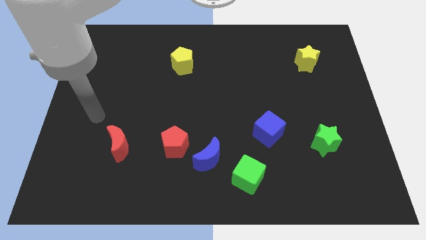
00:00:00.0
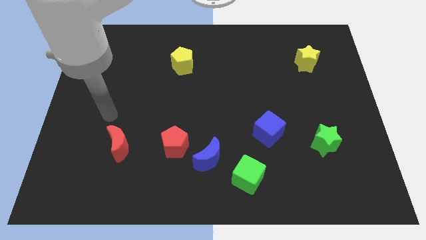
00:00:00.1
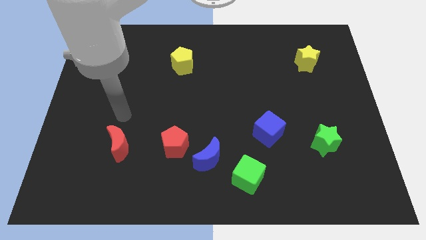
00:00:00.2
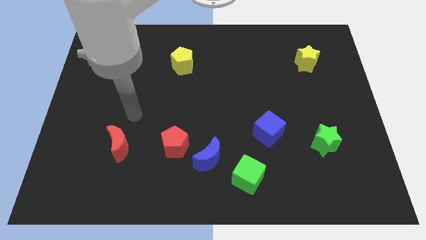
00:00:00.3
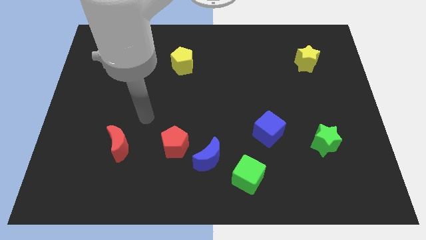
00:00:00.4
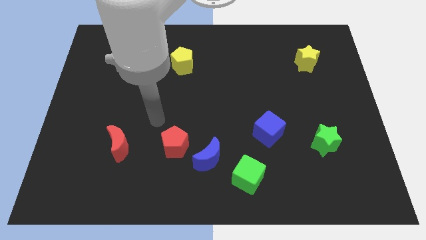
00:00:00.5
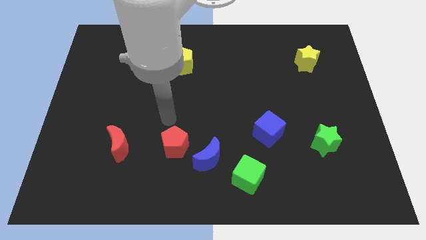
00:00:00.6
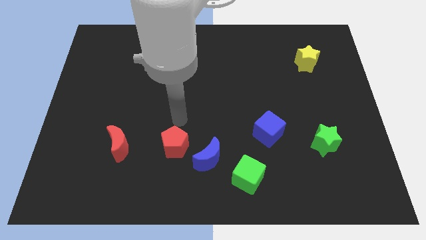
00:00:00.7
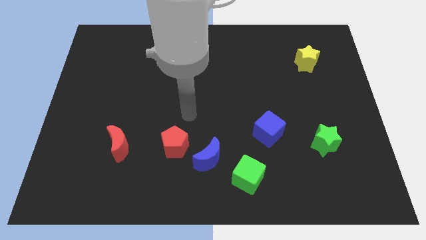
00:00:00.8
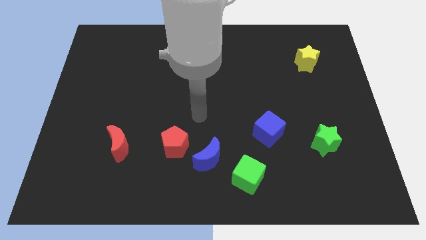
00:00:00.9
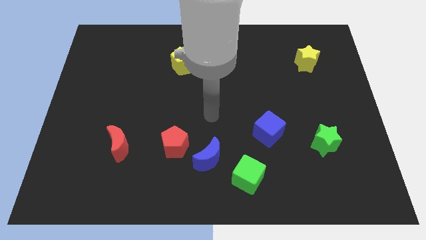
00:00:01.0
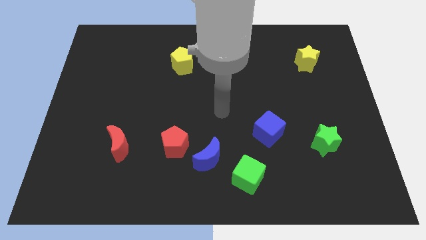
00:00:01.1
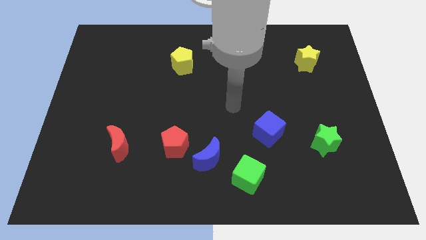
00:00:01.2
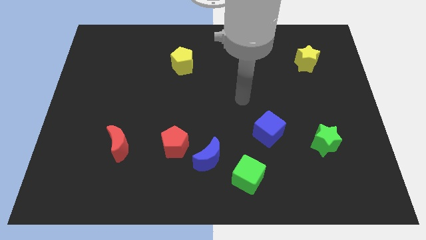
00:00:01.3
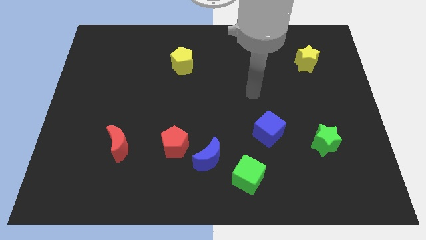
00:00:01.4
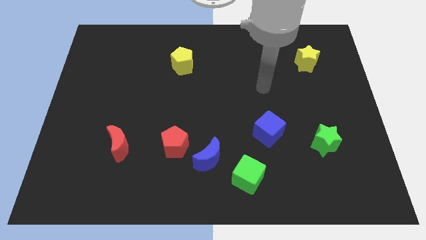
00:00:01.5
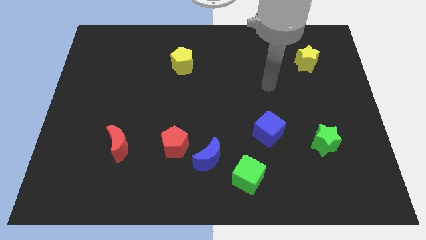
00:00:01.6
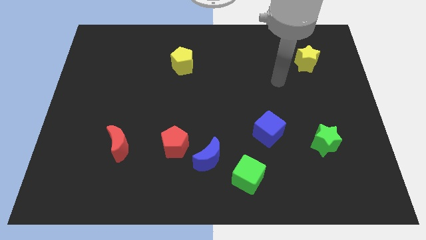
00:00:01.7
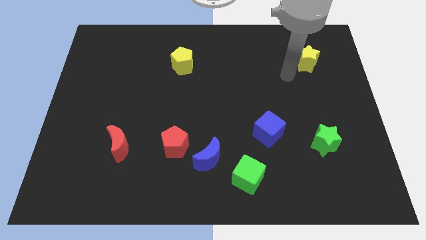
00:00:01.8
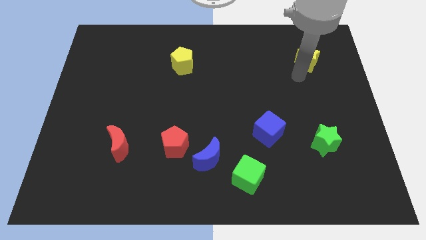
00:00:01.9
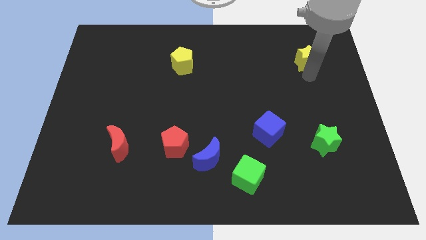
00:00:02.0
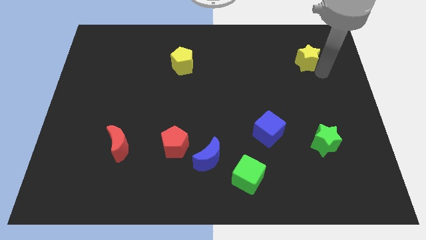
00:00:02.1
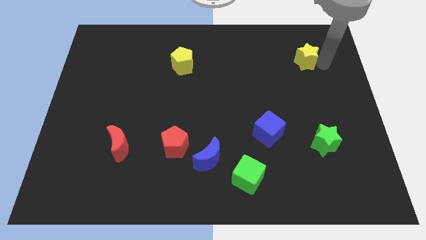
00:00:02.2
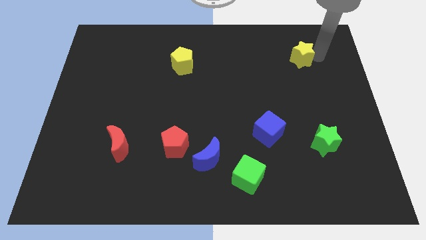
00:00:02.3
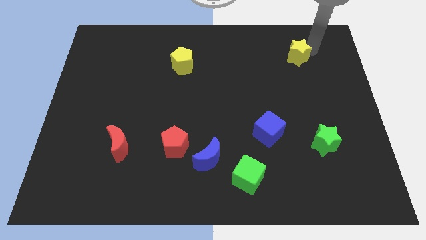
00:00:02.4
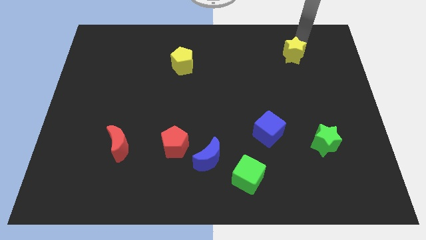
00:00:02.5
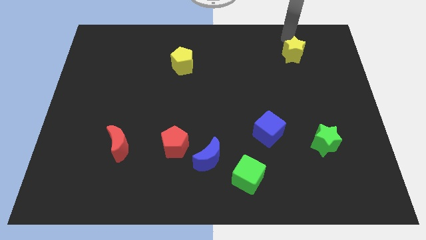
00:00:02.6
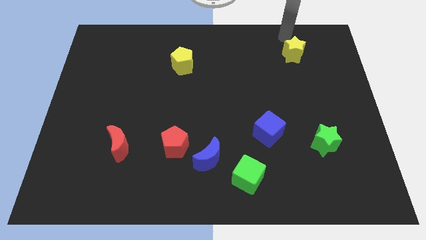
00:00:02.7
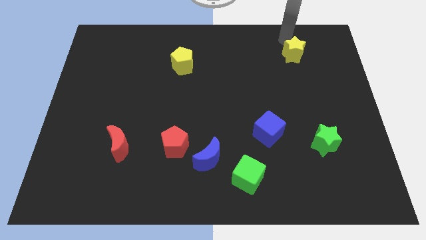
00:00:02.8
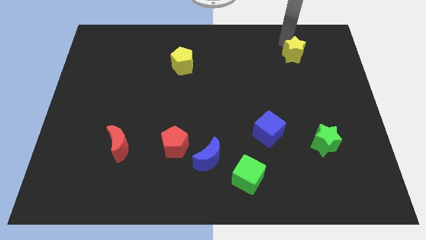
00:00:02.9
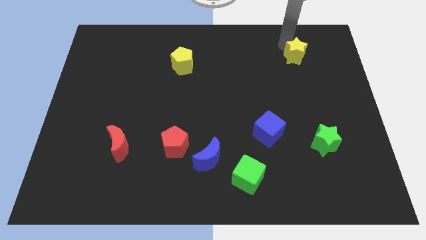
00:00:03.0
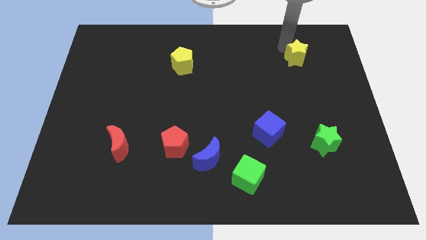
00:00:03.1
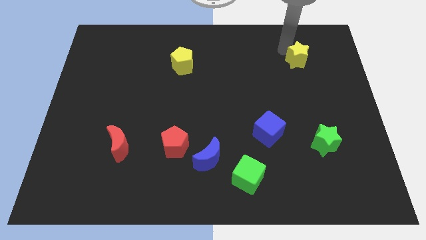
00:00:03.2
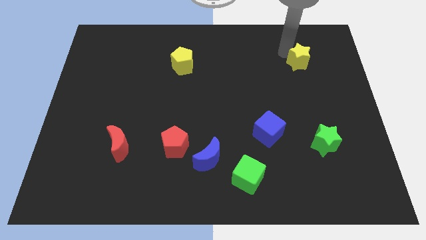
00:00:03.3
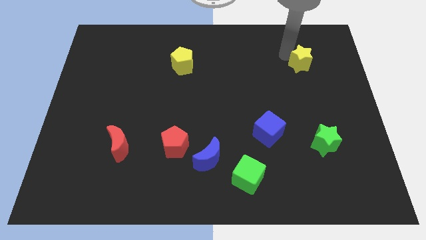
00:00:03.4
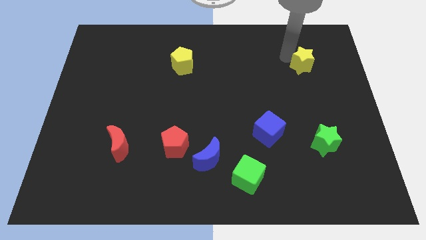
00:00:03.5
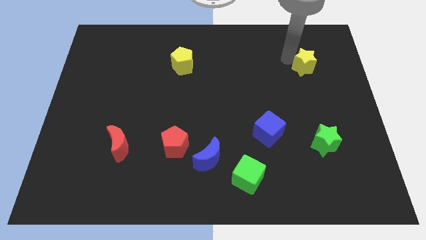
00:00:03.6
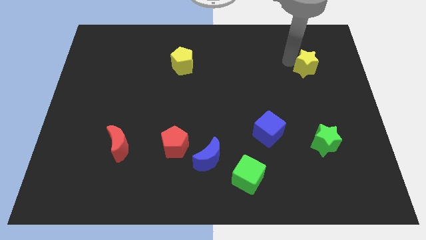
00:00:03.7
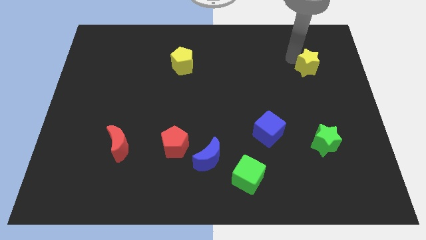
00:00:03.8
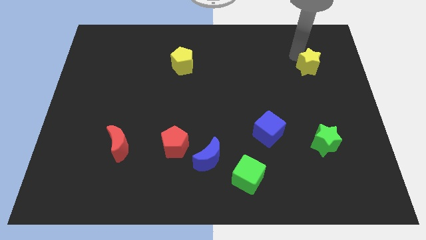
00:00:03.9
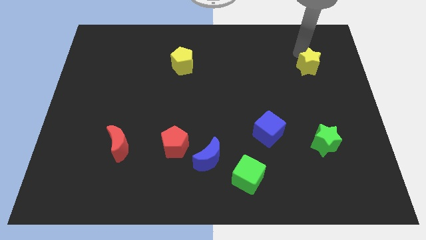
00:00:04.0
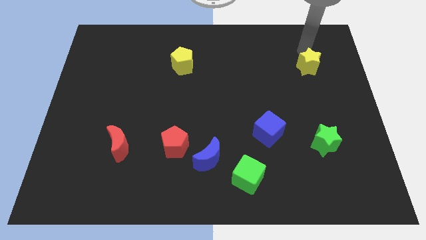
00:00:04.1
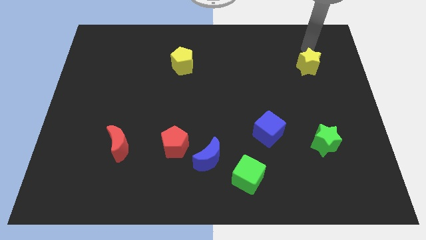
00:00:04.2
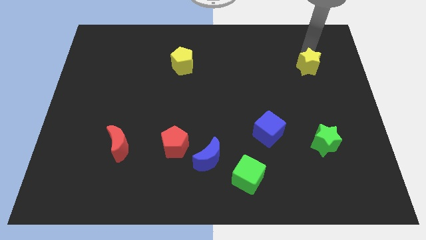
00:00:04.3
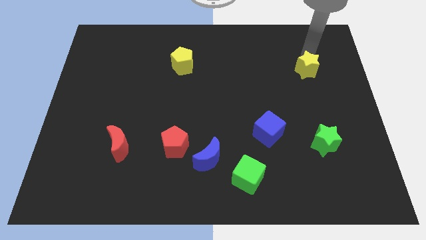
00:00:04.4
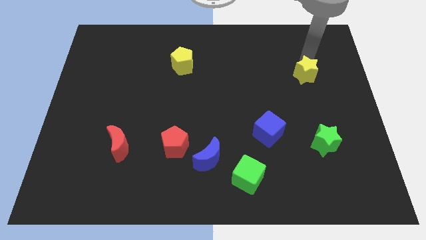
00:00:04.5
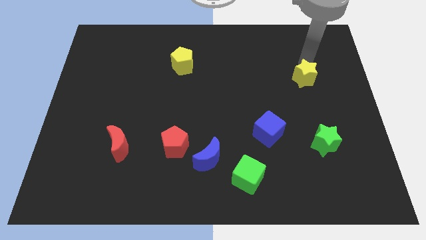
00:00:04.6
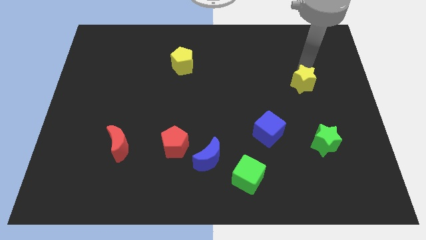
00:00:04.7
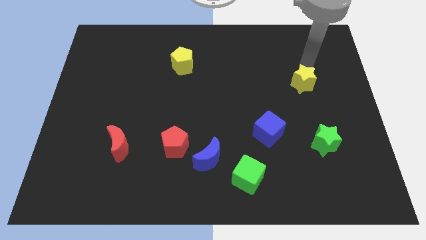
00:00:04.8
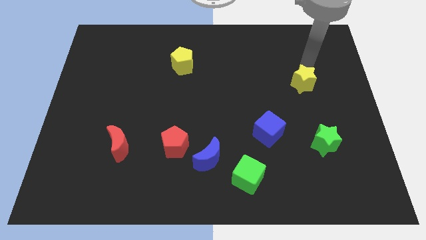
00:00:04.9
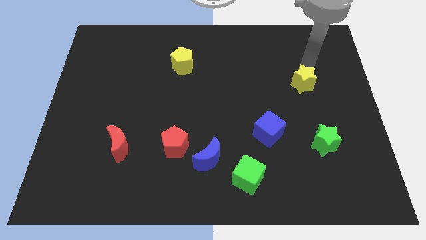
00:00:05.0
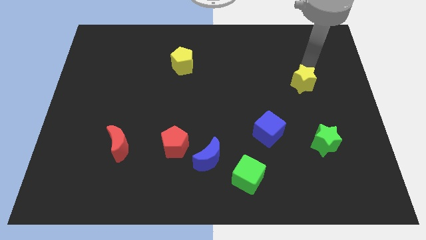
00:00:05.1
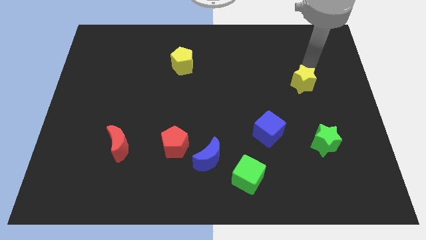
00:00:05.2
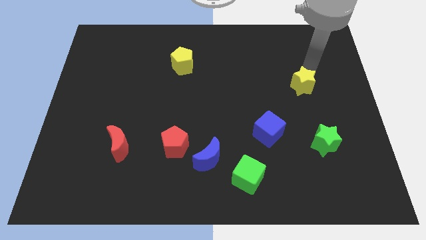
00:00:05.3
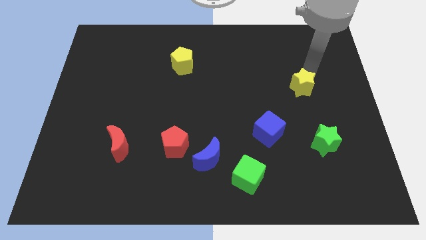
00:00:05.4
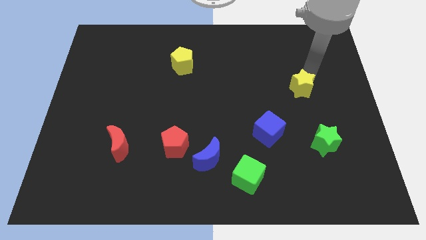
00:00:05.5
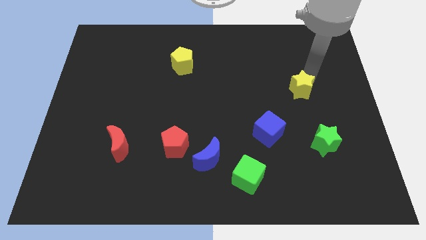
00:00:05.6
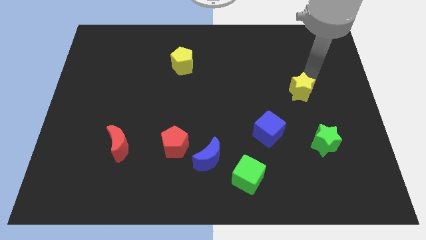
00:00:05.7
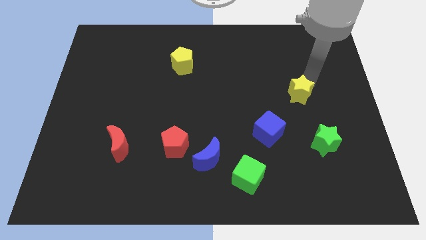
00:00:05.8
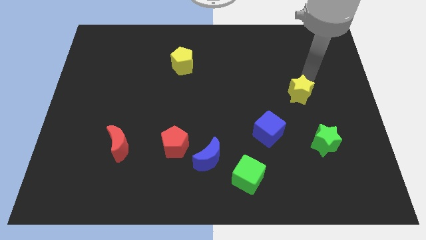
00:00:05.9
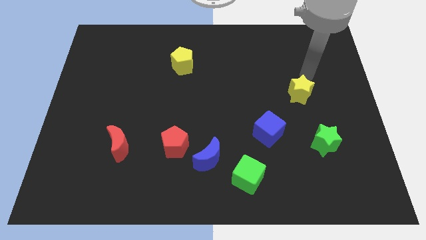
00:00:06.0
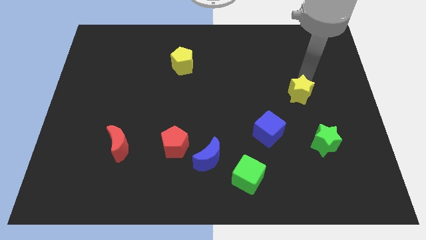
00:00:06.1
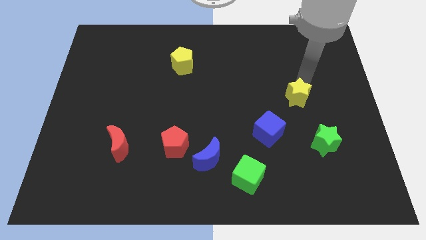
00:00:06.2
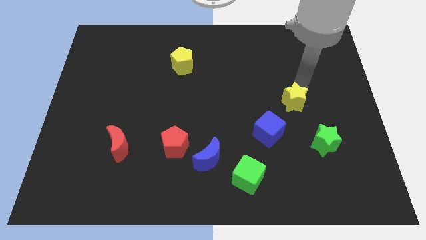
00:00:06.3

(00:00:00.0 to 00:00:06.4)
move the yellow star diagonally up and to the right of the blue cube
